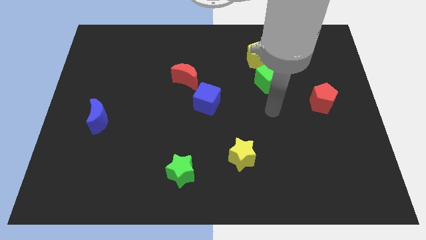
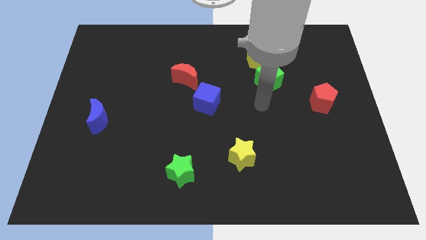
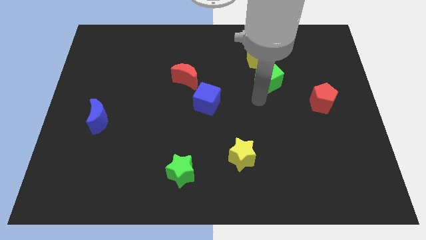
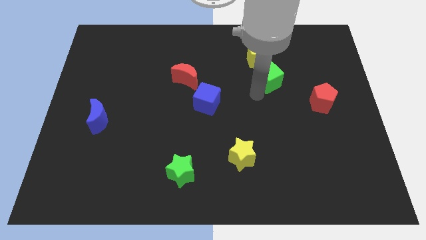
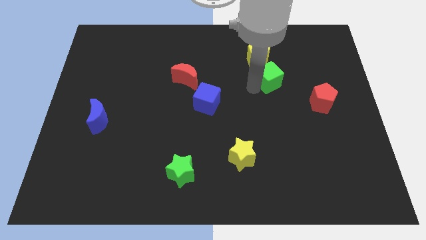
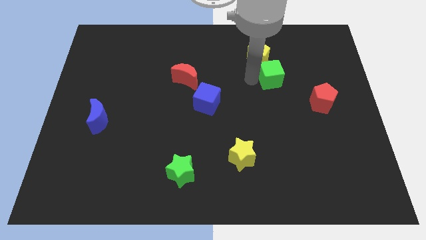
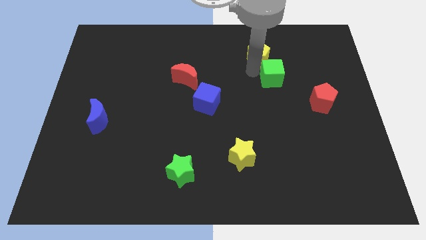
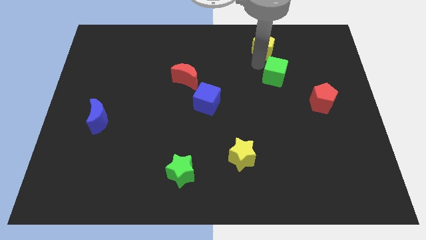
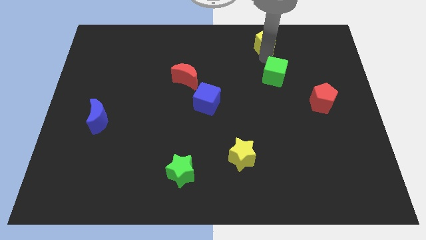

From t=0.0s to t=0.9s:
move the green cube away from the yellow pentagon

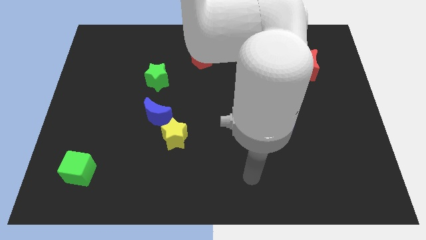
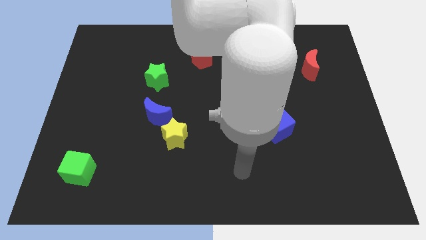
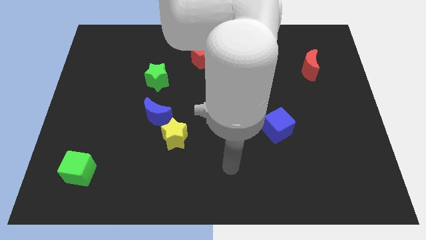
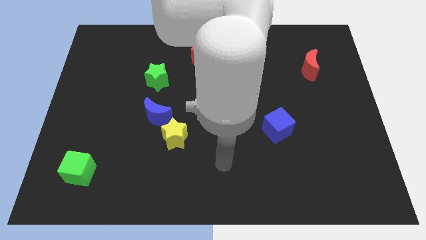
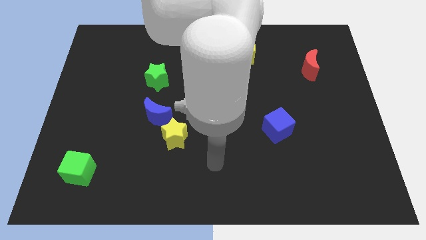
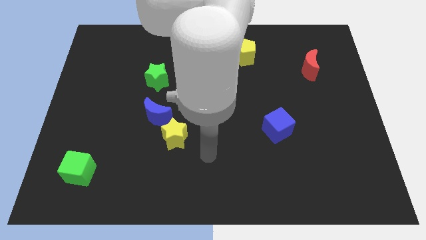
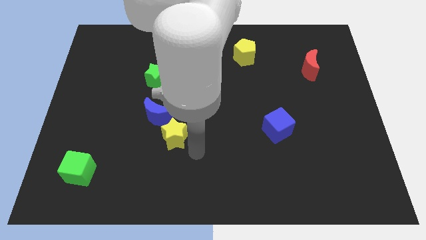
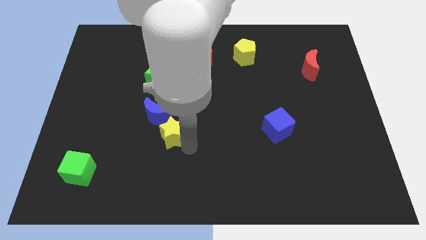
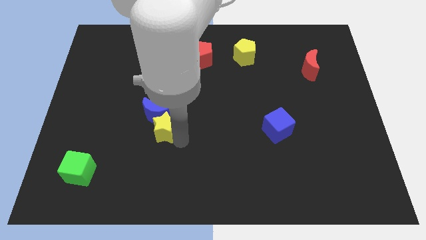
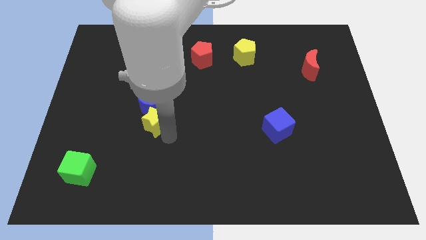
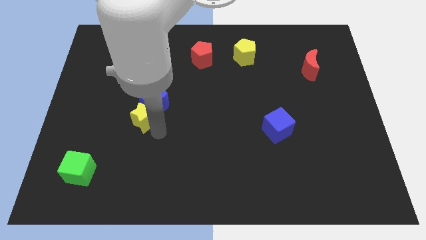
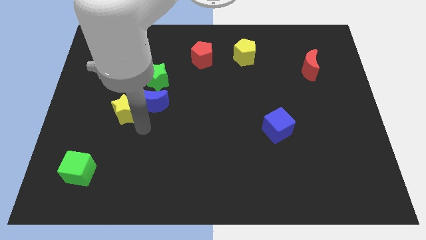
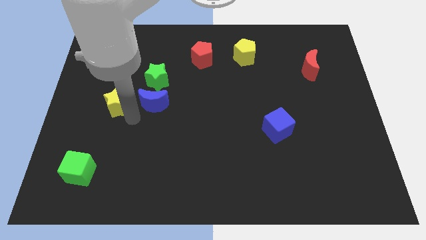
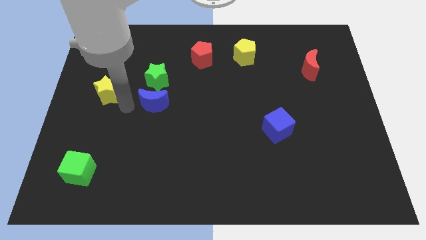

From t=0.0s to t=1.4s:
separate the blue moon from the yellow star

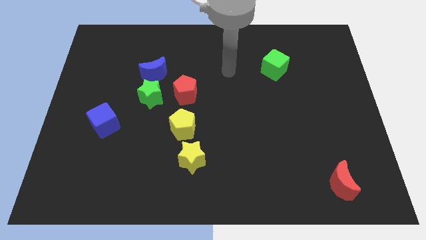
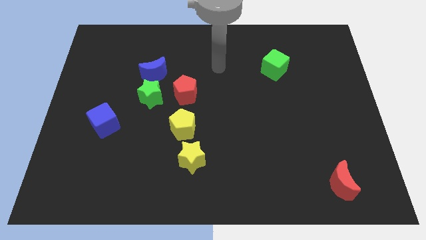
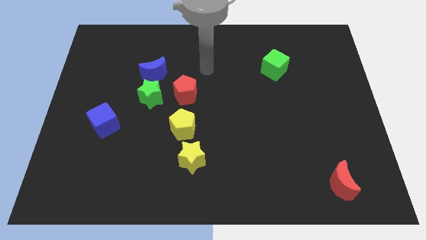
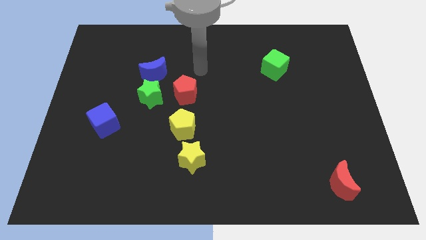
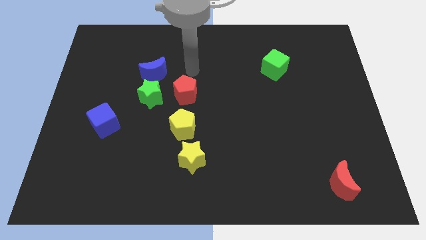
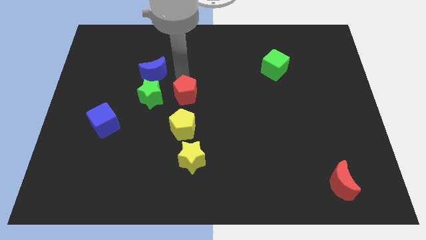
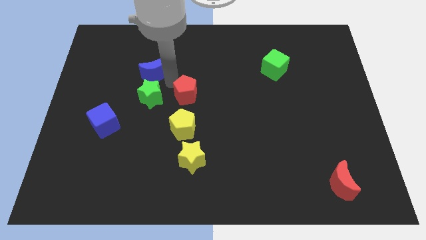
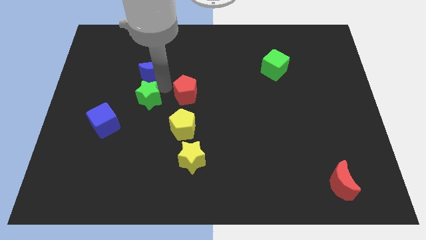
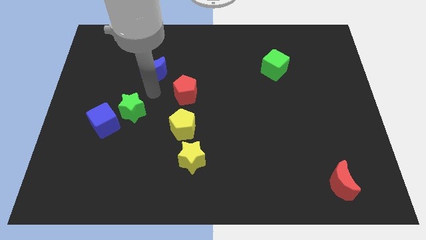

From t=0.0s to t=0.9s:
separate the blue moon from the green star

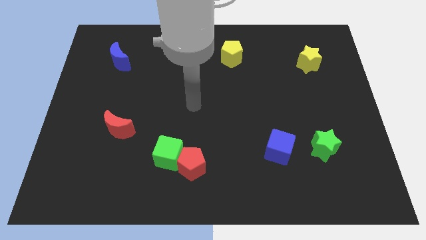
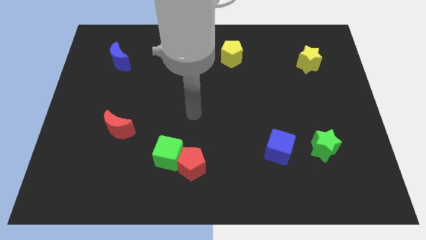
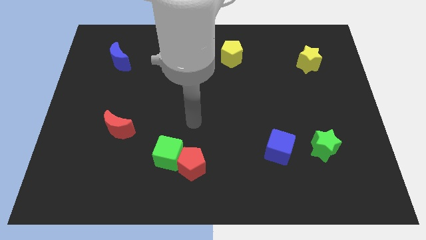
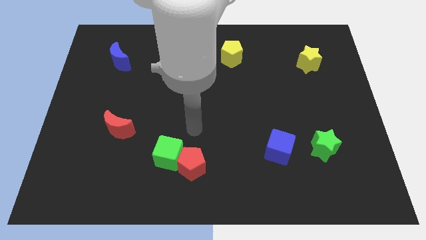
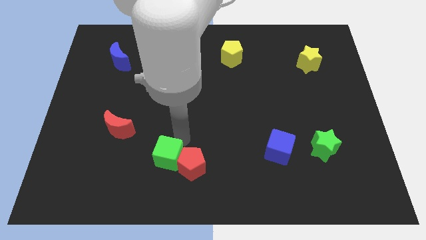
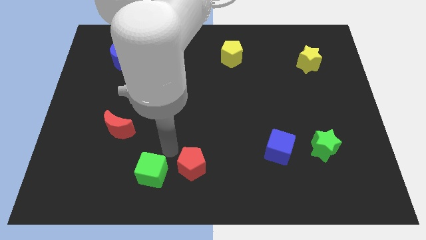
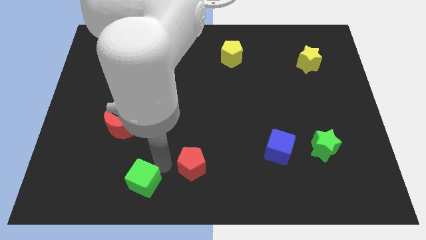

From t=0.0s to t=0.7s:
pull the red pentagon apart from the green cube

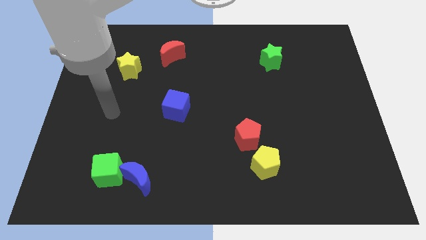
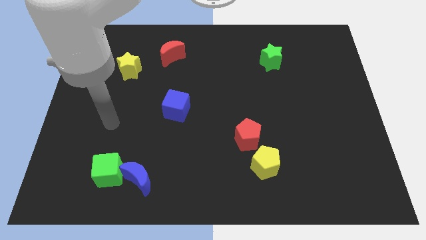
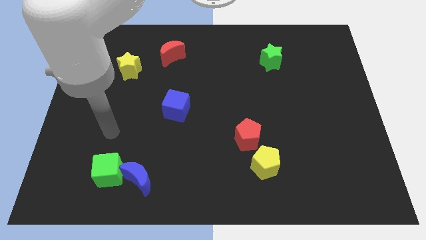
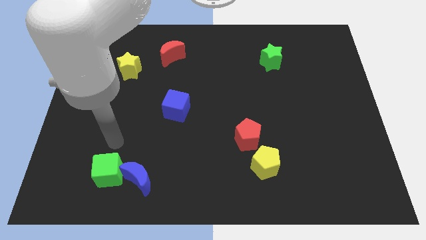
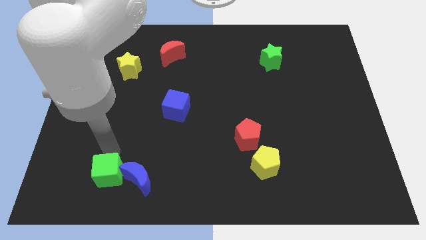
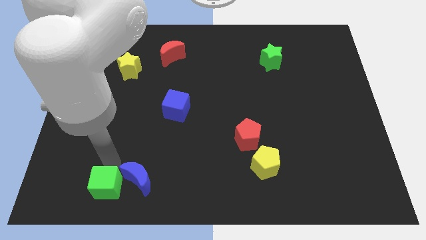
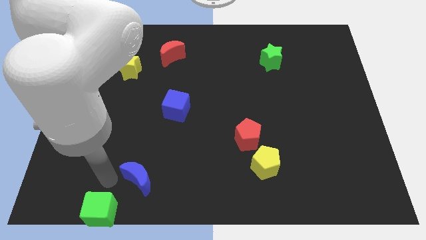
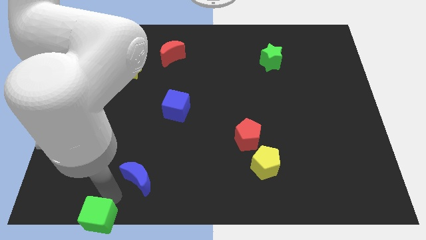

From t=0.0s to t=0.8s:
move the blue moon away from the green cube

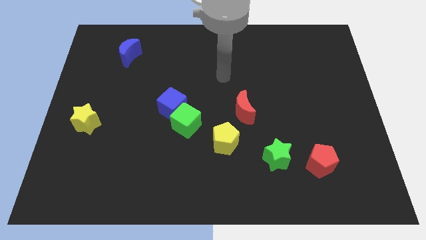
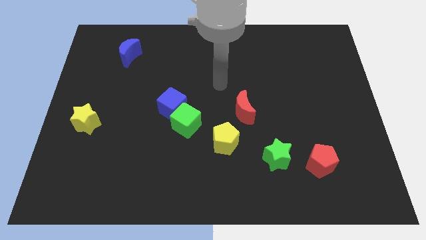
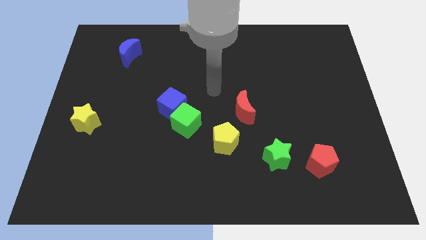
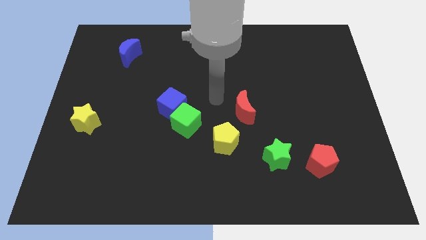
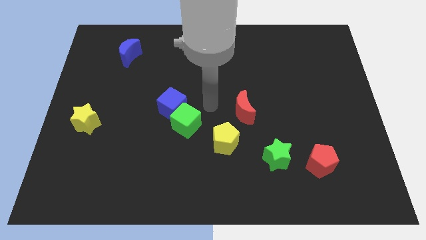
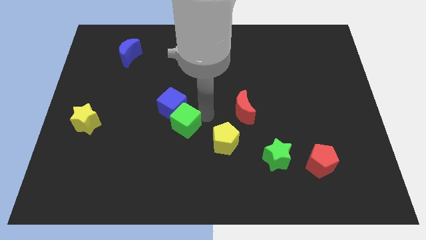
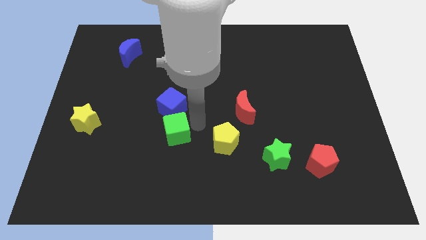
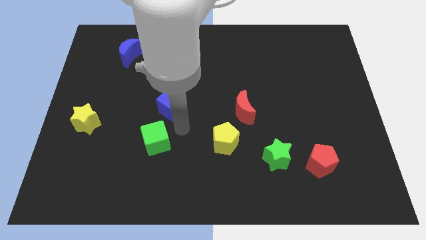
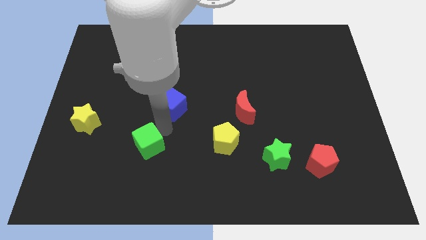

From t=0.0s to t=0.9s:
move the blue cube away from the green cube

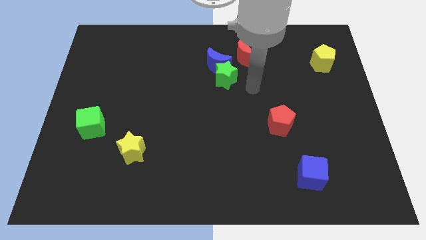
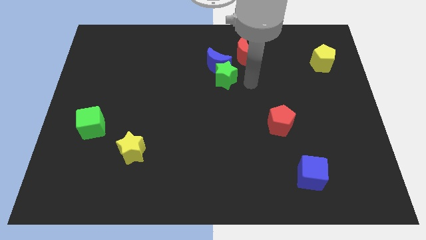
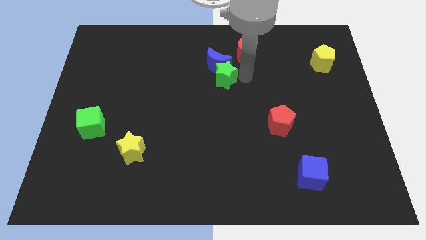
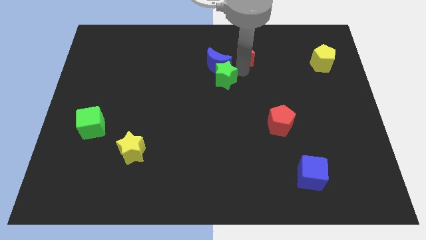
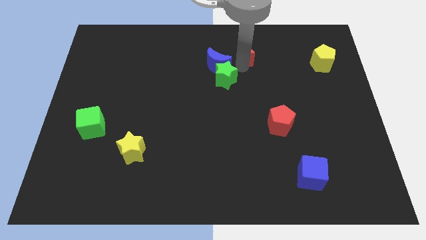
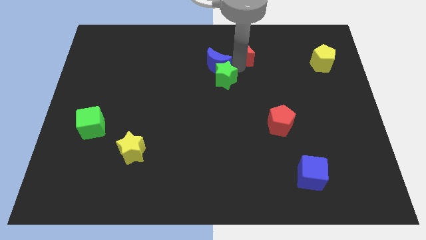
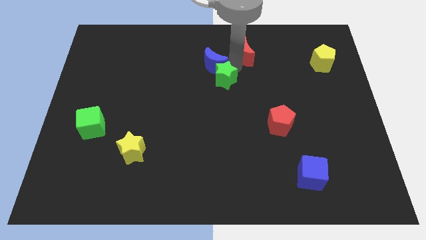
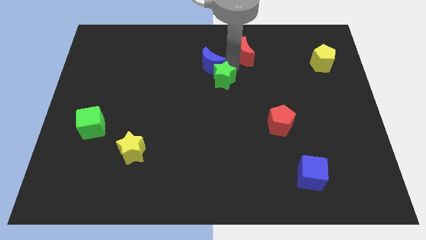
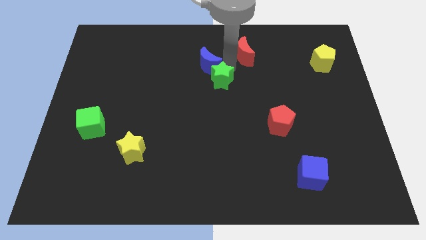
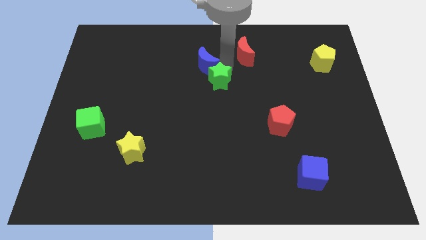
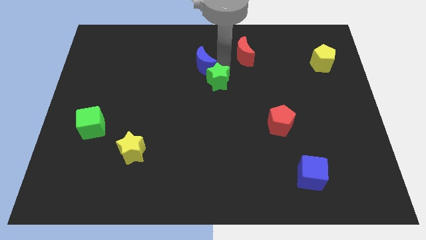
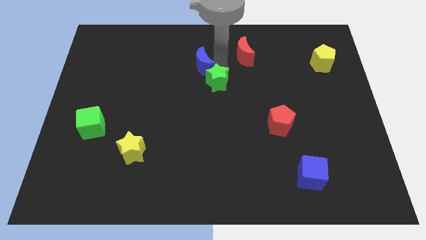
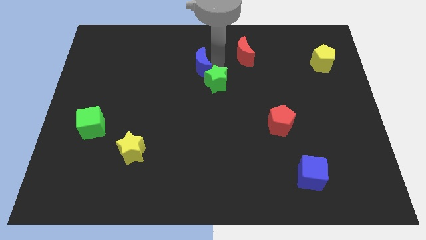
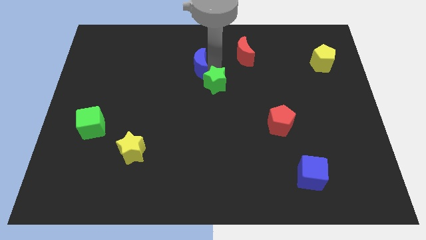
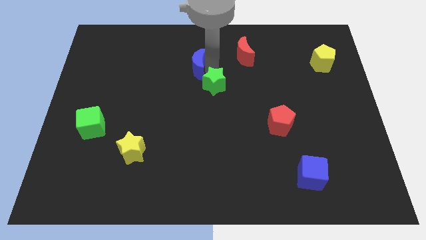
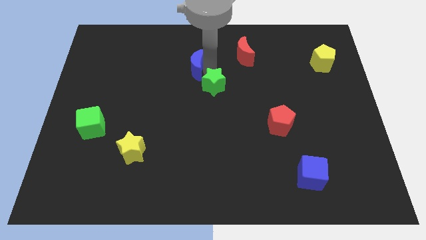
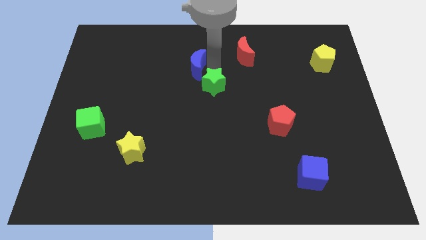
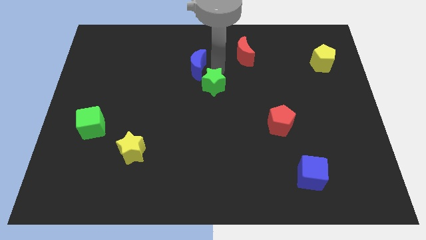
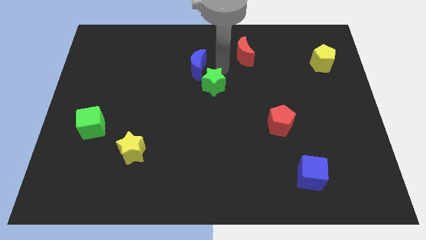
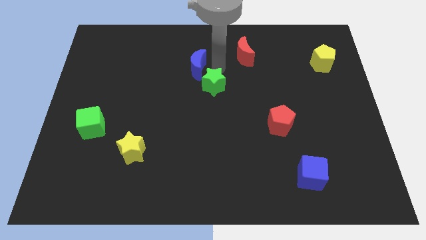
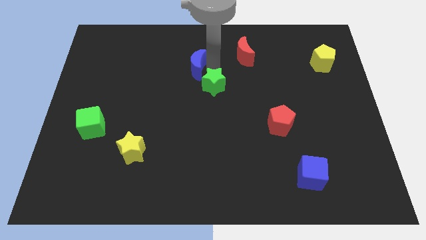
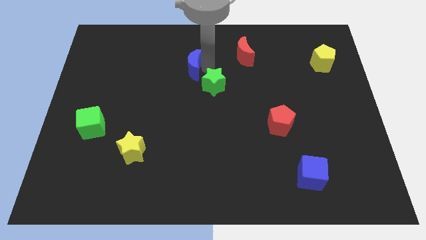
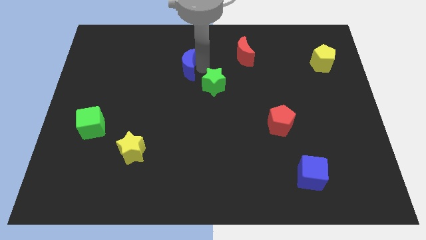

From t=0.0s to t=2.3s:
separate the blue moon from the green star and red moon

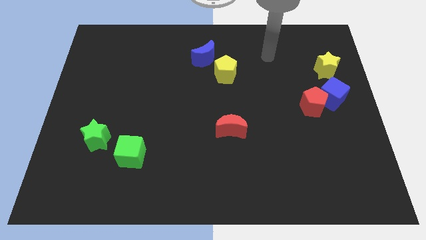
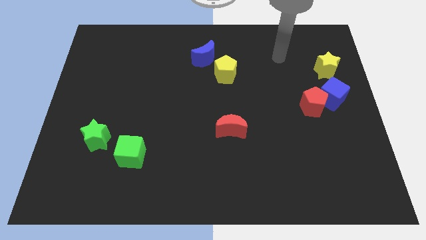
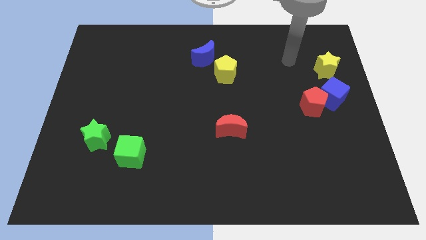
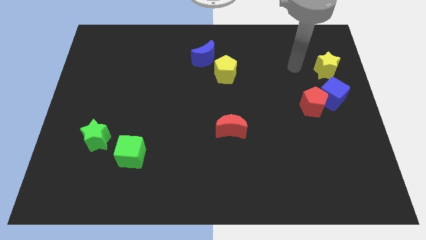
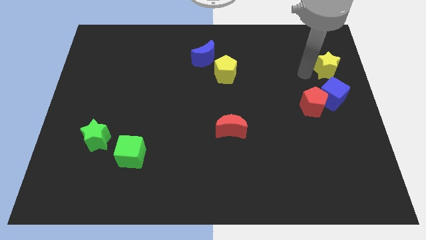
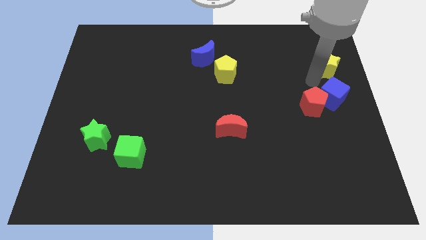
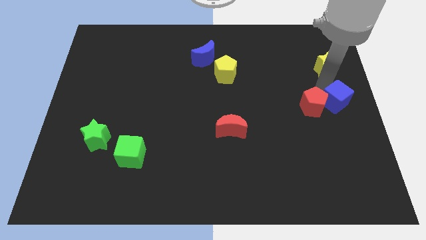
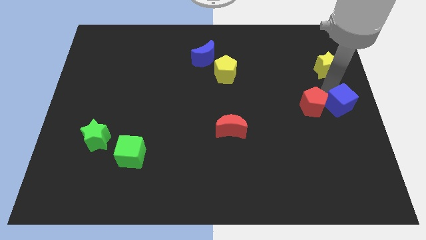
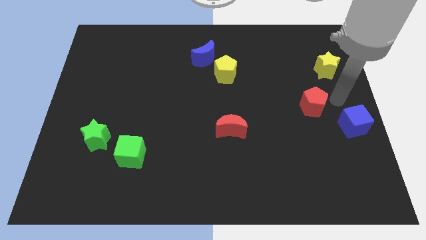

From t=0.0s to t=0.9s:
move the red pentagon away from the blue cube

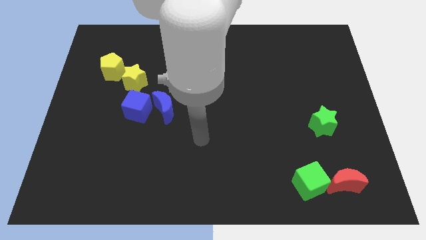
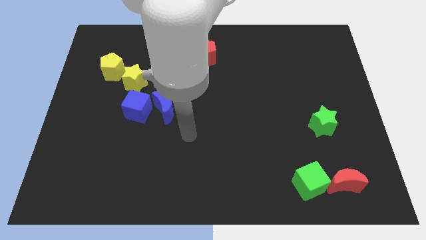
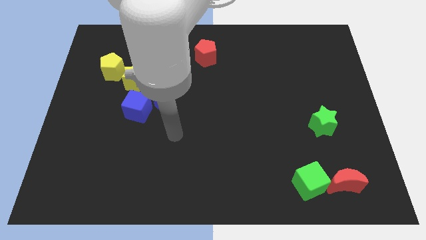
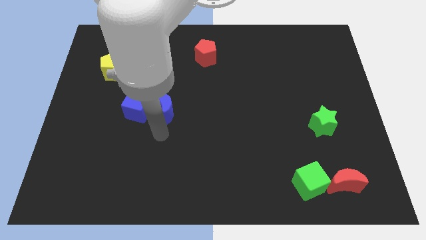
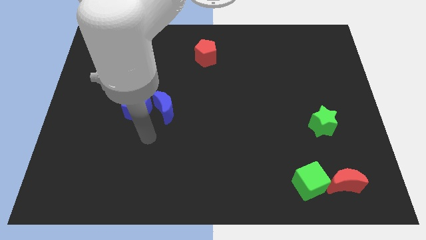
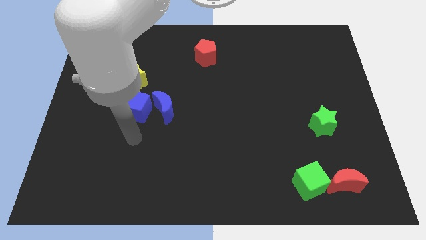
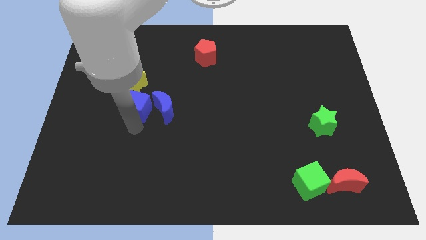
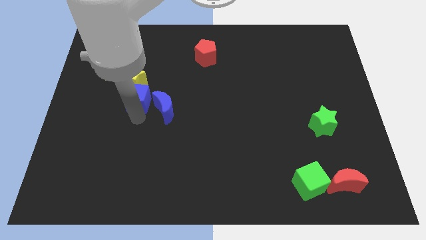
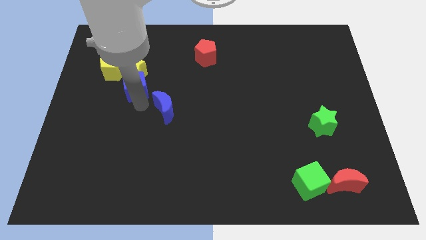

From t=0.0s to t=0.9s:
separate the blue moon from the blue cube
